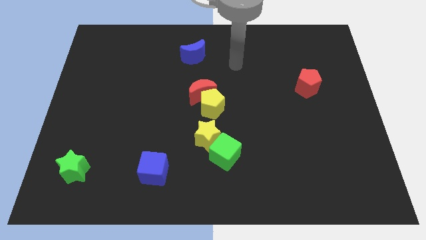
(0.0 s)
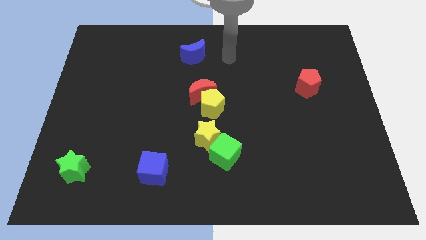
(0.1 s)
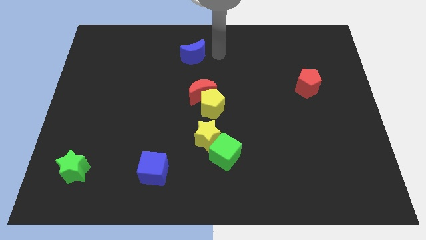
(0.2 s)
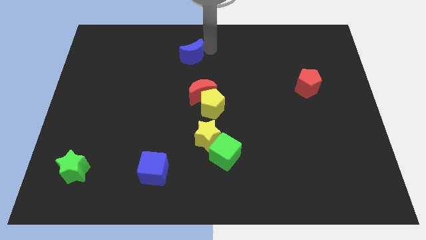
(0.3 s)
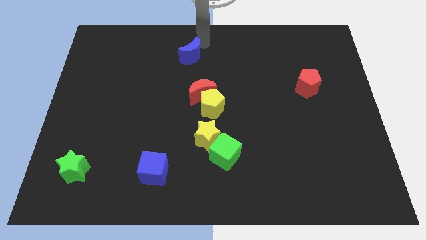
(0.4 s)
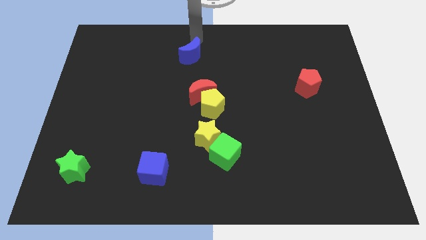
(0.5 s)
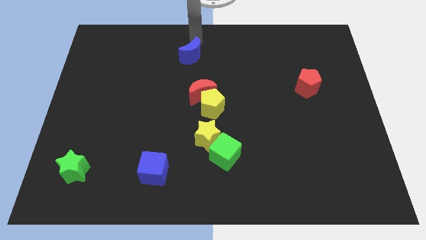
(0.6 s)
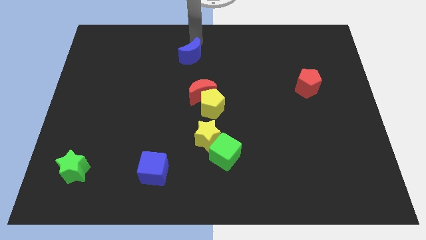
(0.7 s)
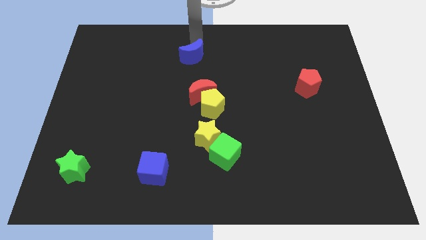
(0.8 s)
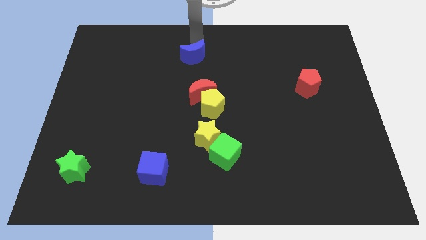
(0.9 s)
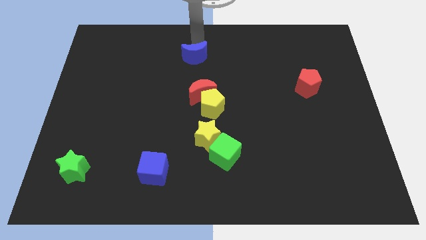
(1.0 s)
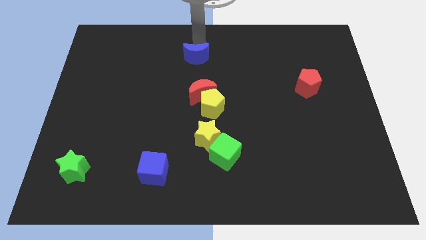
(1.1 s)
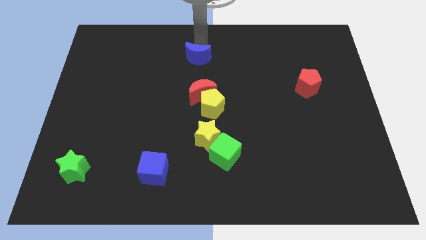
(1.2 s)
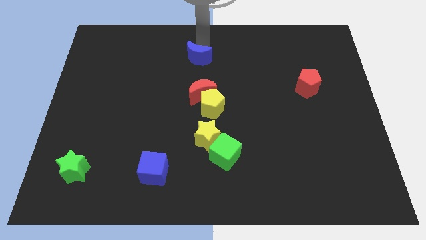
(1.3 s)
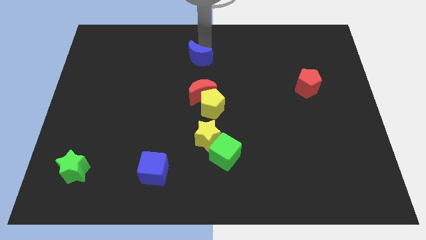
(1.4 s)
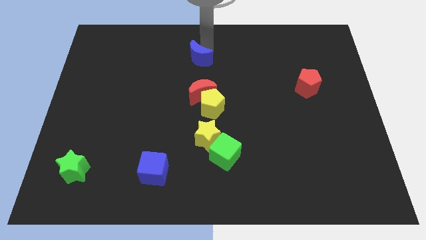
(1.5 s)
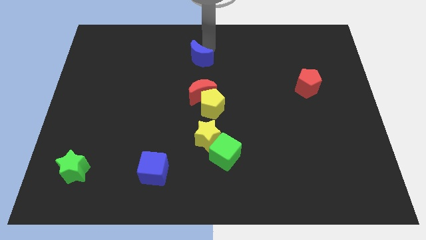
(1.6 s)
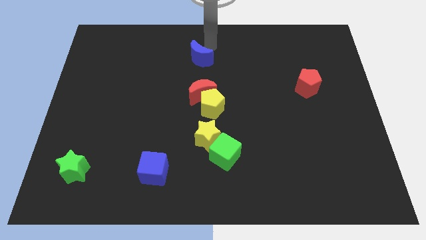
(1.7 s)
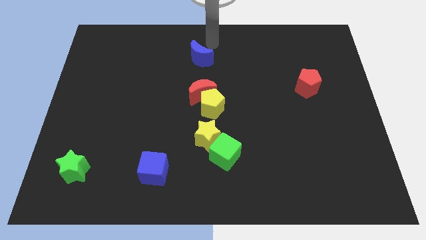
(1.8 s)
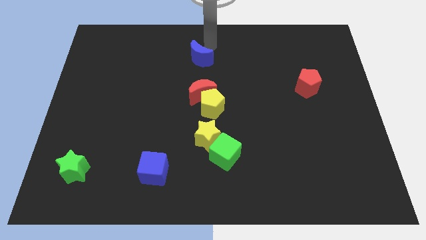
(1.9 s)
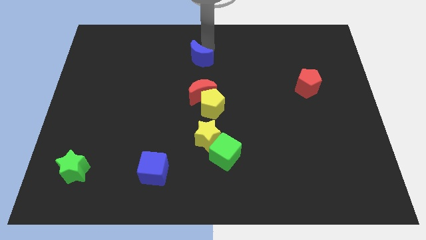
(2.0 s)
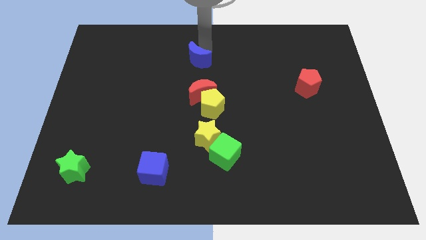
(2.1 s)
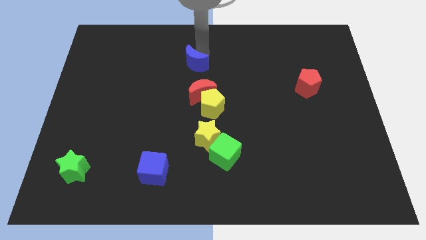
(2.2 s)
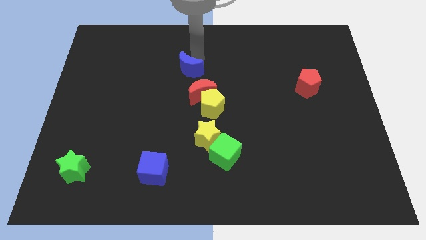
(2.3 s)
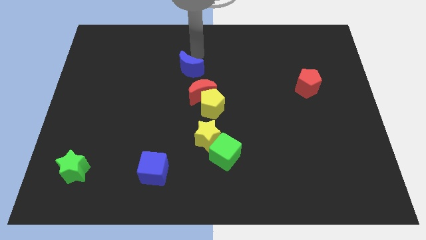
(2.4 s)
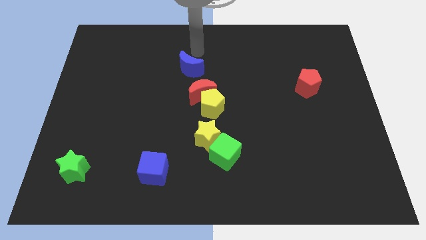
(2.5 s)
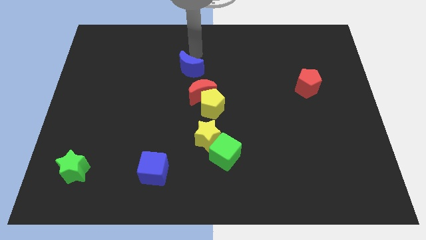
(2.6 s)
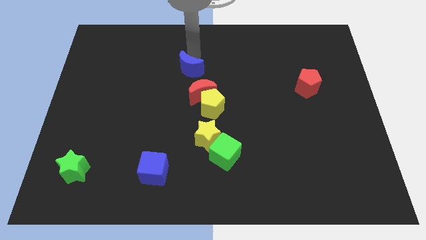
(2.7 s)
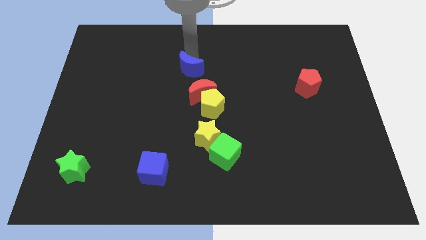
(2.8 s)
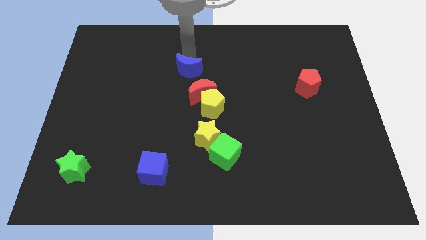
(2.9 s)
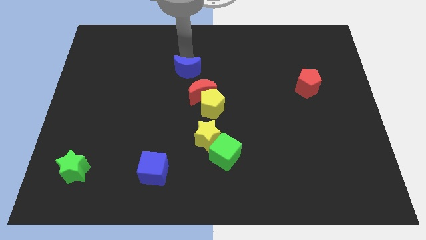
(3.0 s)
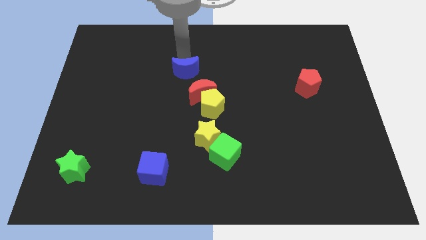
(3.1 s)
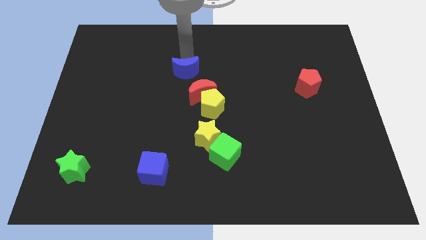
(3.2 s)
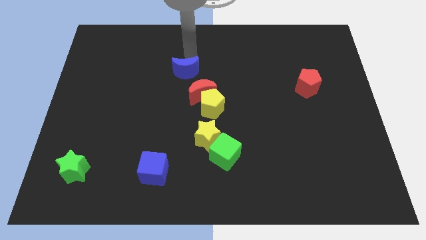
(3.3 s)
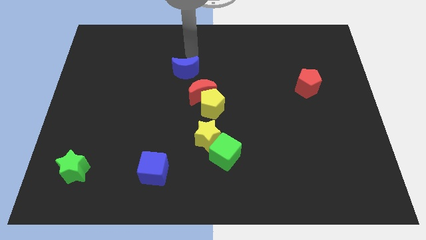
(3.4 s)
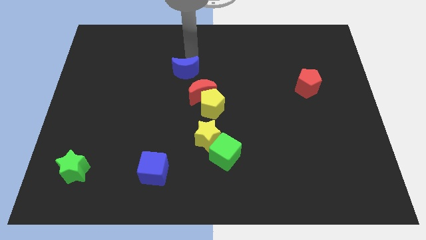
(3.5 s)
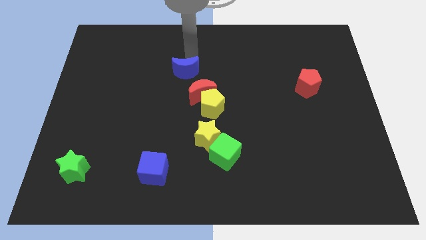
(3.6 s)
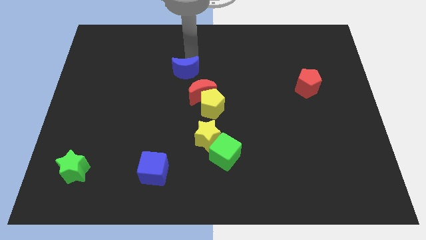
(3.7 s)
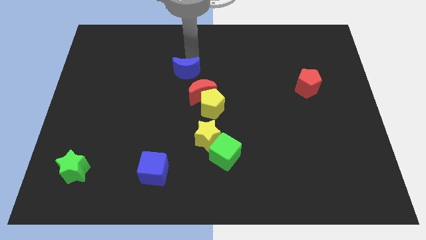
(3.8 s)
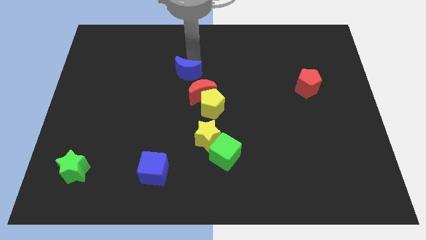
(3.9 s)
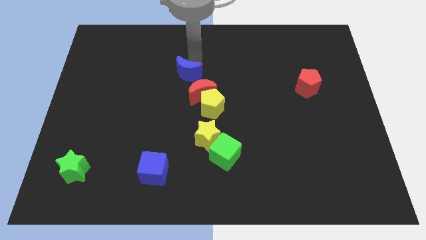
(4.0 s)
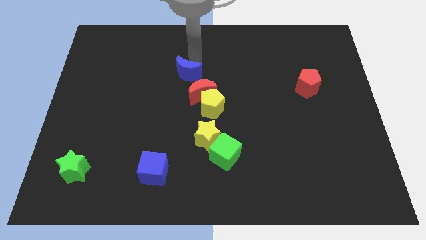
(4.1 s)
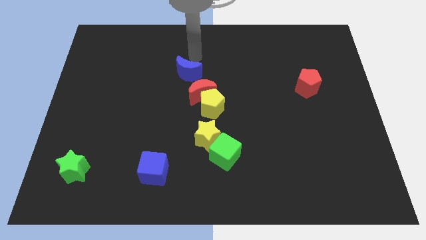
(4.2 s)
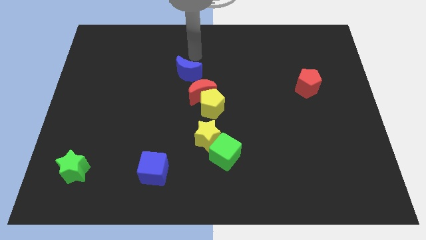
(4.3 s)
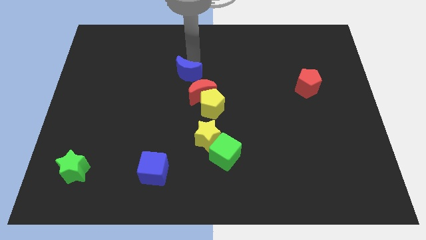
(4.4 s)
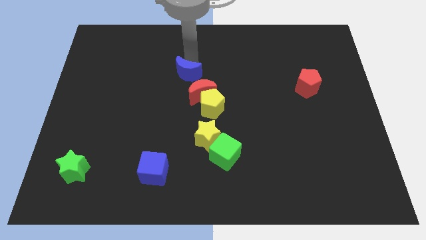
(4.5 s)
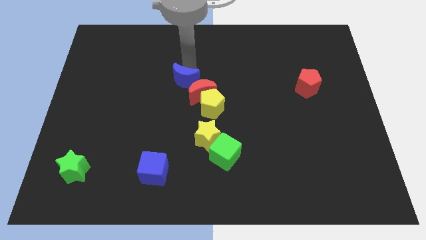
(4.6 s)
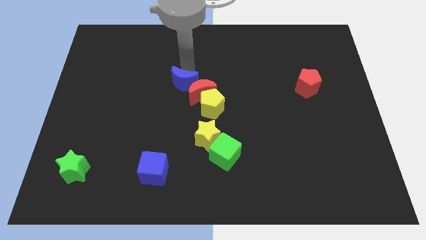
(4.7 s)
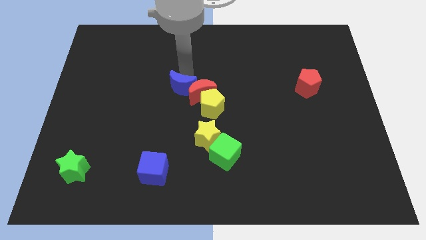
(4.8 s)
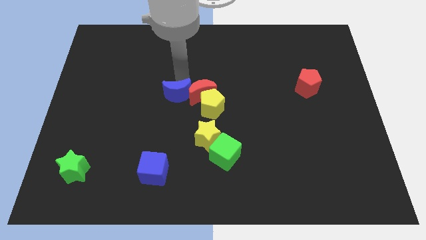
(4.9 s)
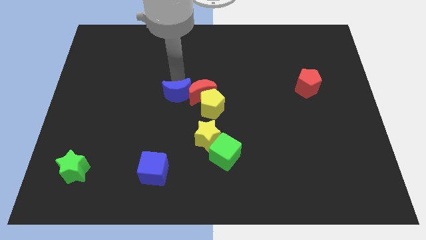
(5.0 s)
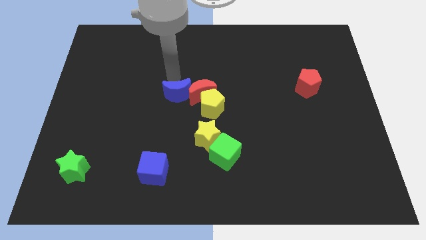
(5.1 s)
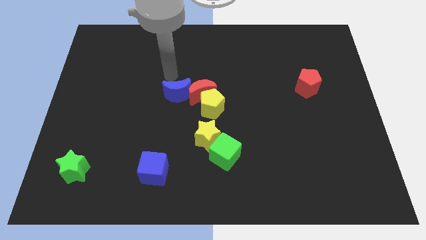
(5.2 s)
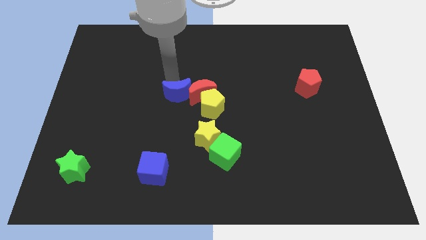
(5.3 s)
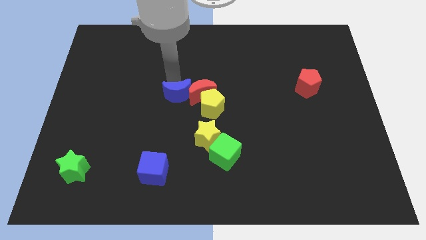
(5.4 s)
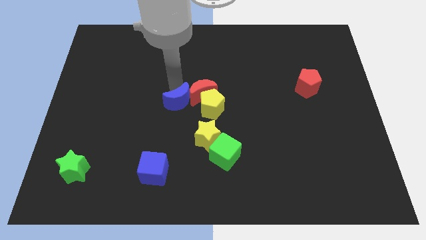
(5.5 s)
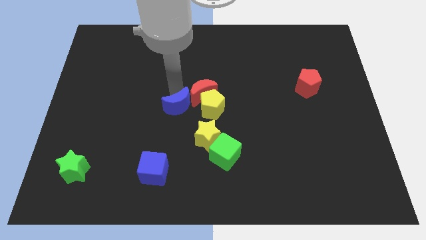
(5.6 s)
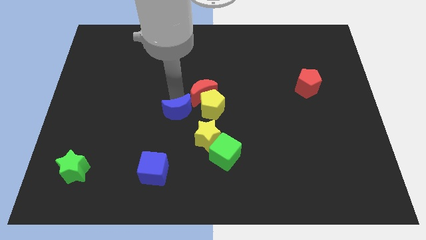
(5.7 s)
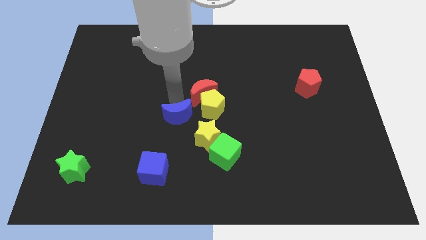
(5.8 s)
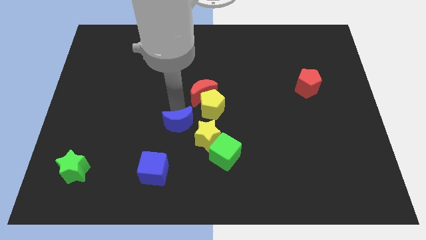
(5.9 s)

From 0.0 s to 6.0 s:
slide the blue moon down

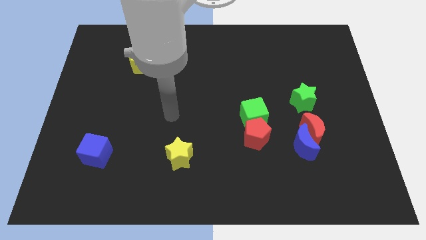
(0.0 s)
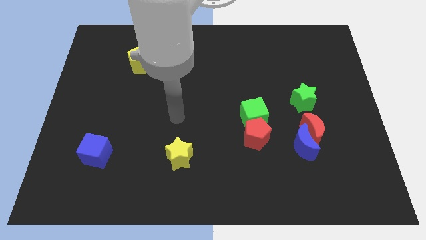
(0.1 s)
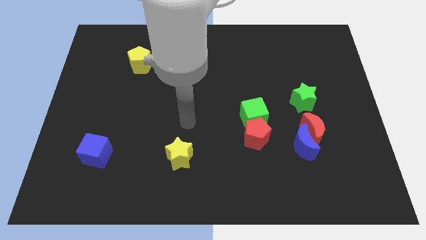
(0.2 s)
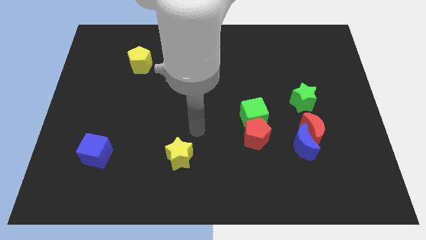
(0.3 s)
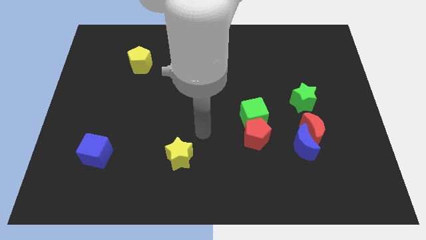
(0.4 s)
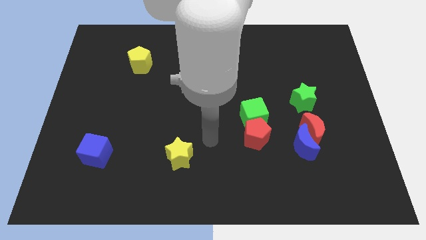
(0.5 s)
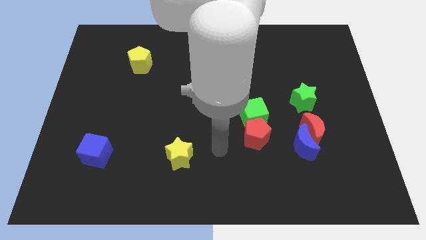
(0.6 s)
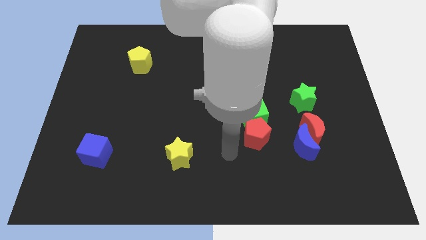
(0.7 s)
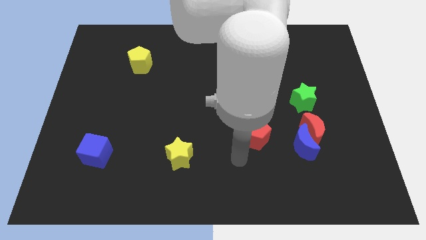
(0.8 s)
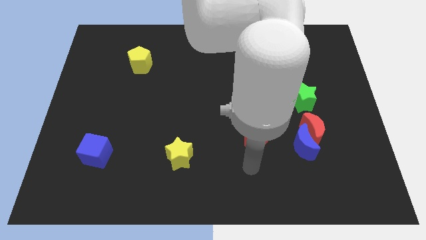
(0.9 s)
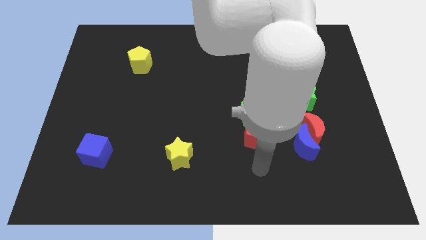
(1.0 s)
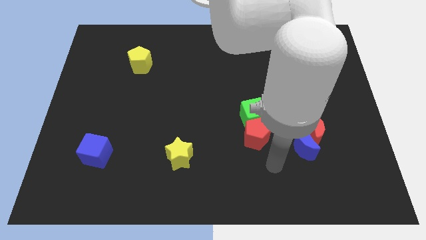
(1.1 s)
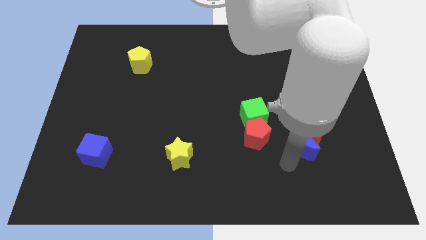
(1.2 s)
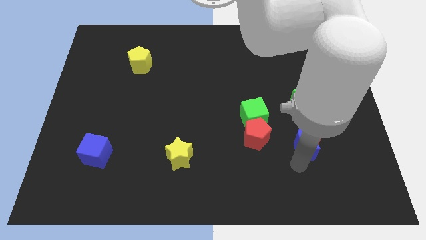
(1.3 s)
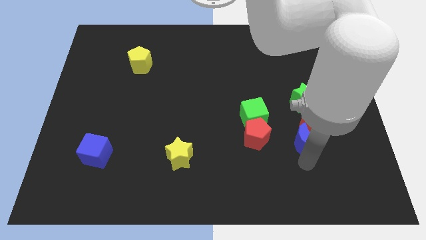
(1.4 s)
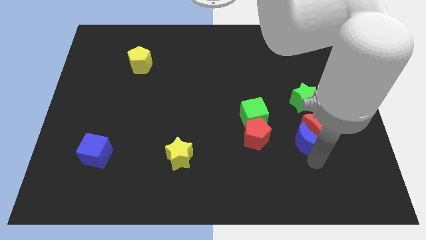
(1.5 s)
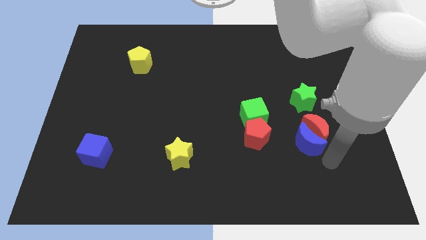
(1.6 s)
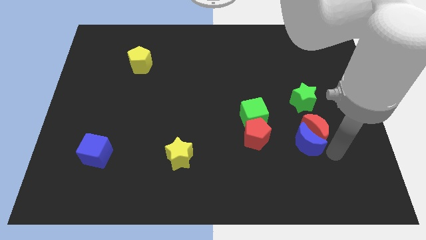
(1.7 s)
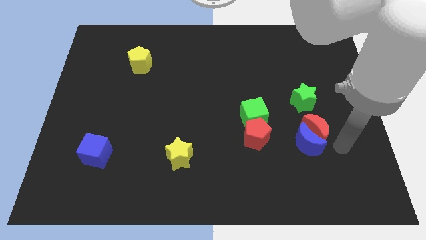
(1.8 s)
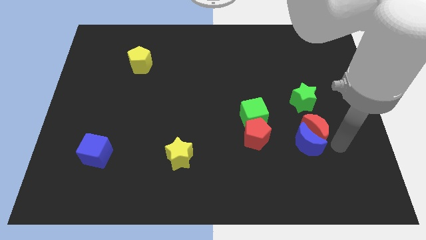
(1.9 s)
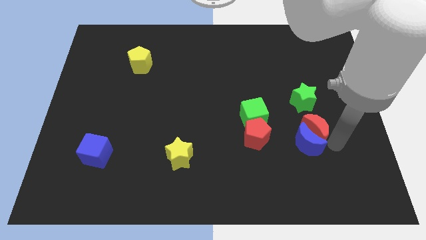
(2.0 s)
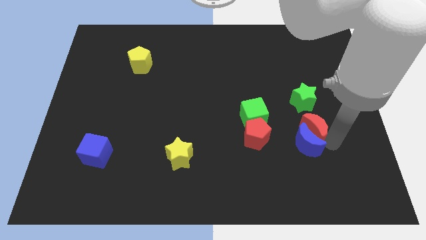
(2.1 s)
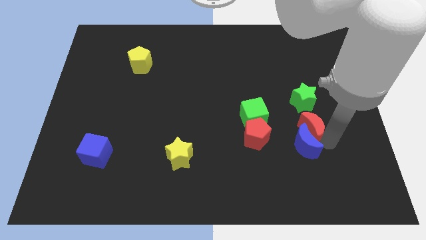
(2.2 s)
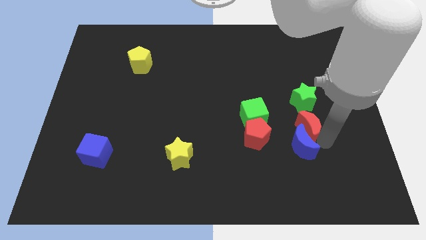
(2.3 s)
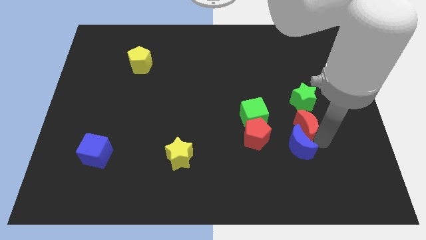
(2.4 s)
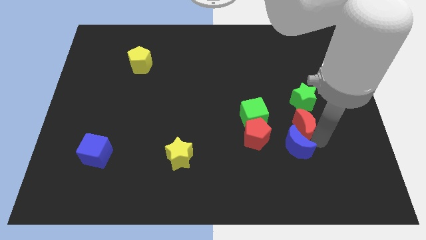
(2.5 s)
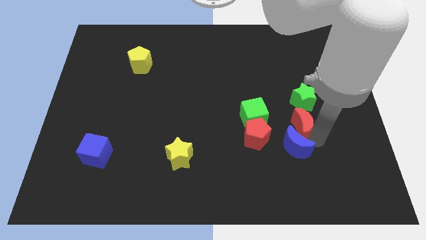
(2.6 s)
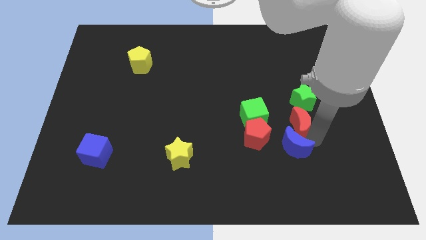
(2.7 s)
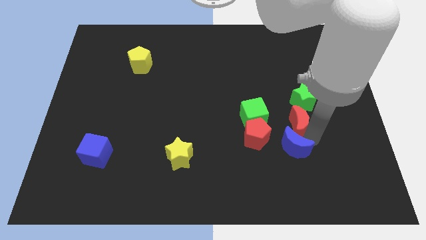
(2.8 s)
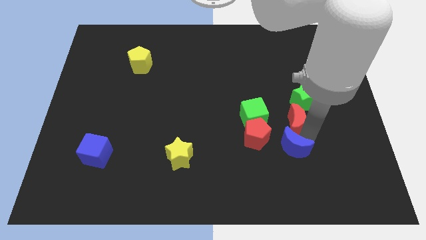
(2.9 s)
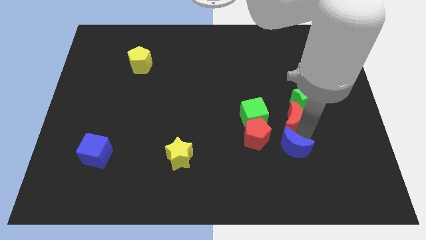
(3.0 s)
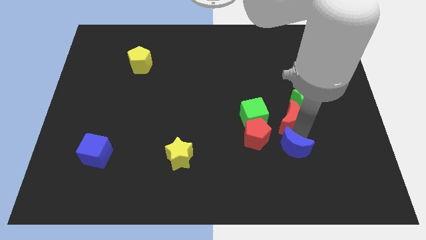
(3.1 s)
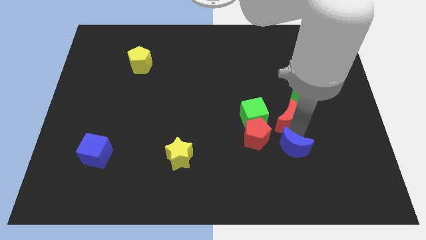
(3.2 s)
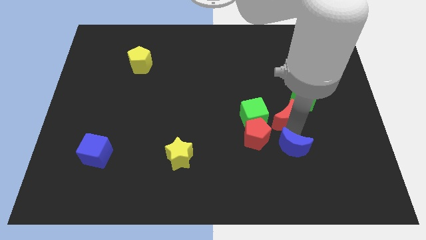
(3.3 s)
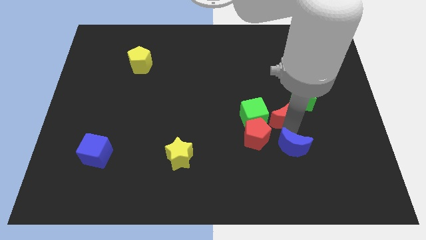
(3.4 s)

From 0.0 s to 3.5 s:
push the red moon diagonally upwards and to the left somewhat
